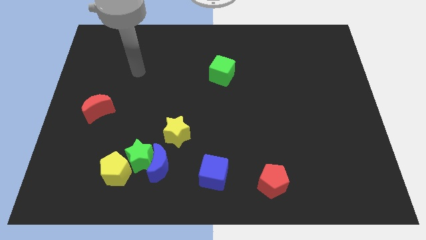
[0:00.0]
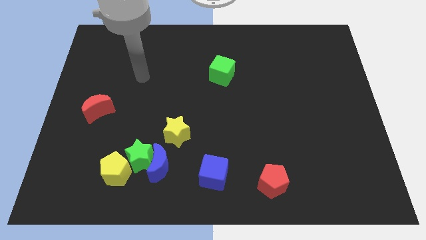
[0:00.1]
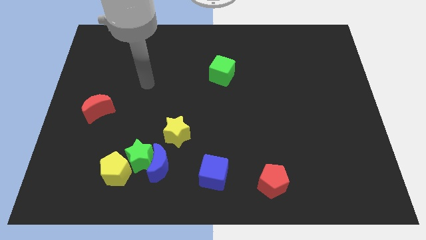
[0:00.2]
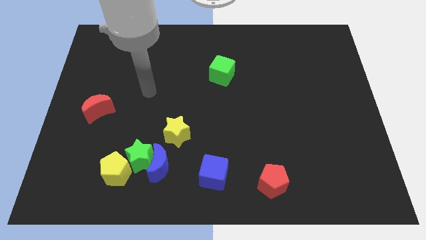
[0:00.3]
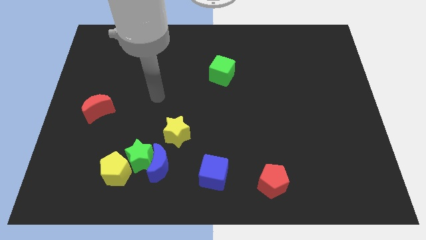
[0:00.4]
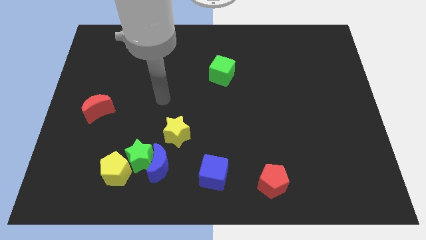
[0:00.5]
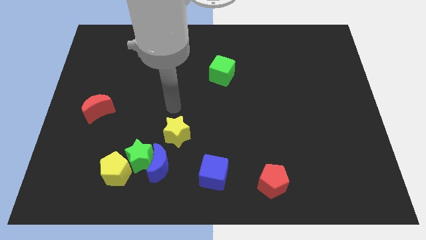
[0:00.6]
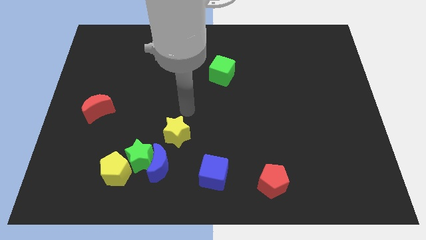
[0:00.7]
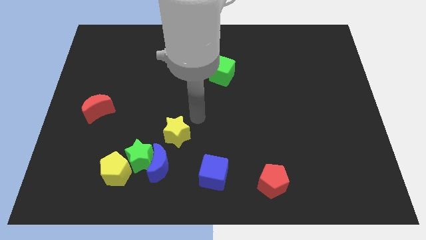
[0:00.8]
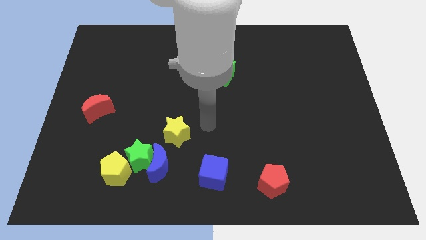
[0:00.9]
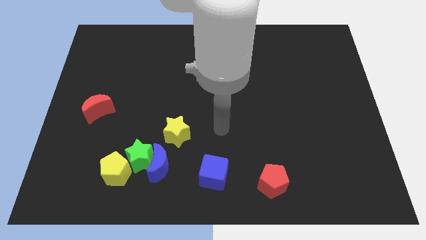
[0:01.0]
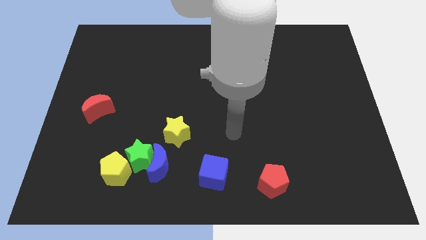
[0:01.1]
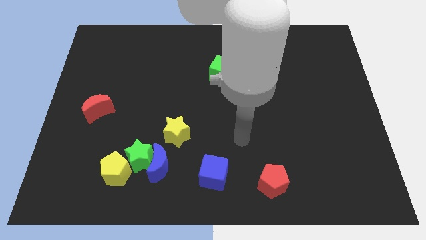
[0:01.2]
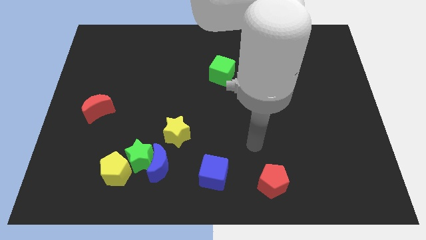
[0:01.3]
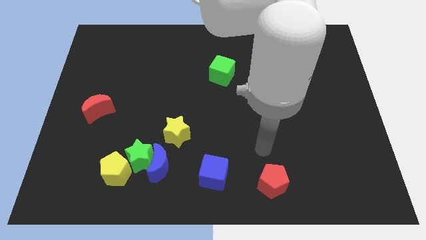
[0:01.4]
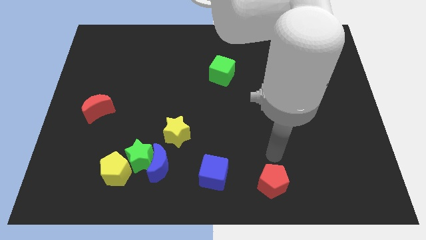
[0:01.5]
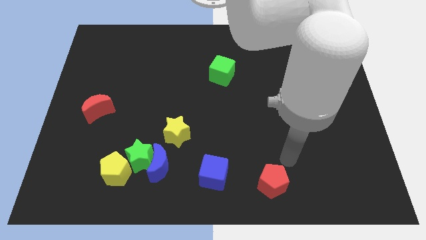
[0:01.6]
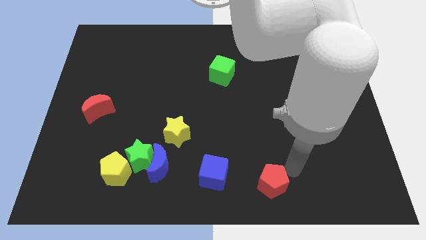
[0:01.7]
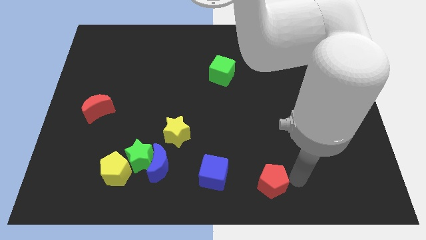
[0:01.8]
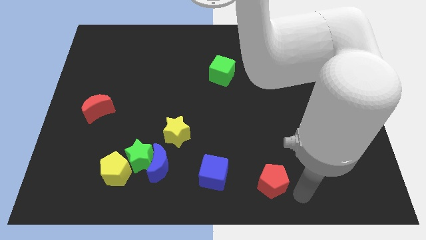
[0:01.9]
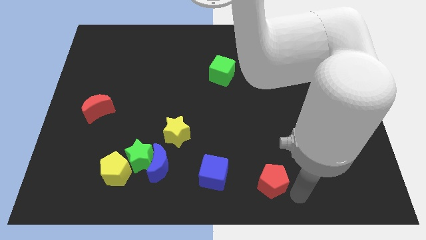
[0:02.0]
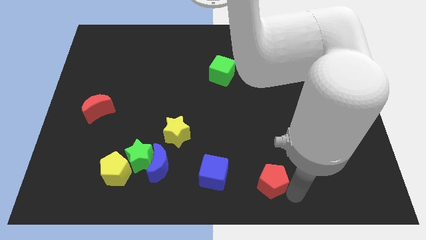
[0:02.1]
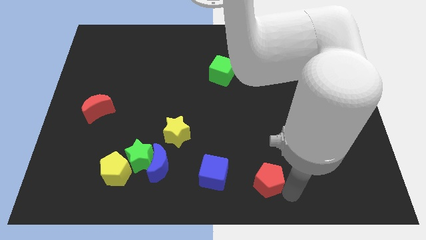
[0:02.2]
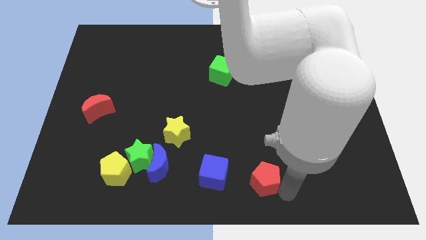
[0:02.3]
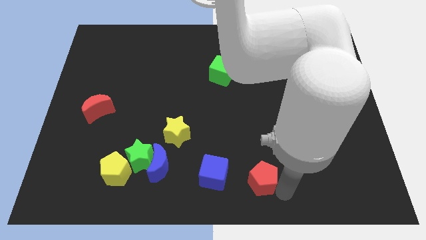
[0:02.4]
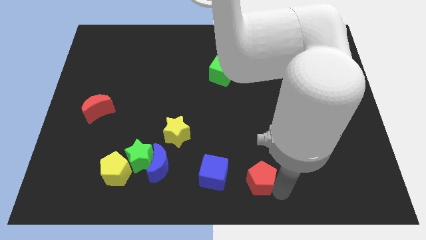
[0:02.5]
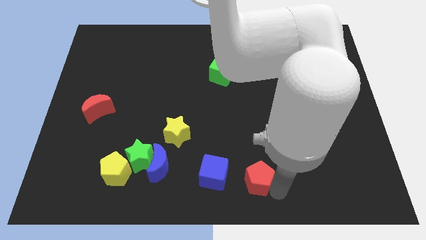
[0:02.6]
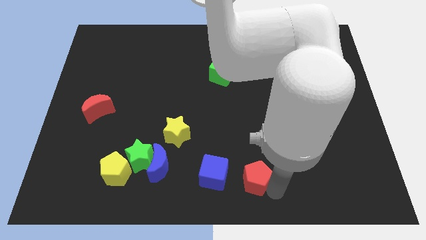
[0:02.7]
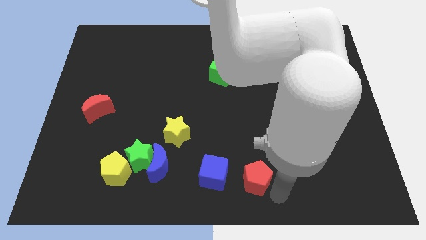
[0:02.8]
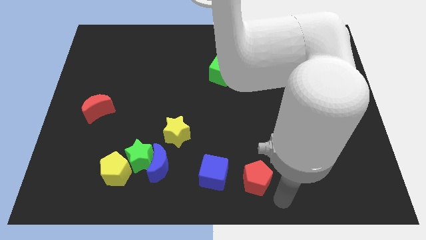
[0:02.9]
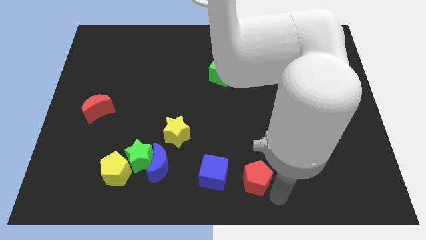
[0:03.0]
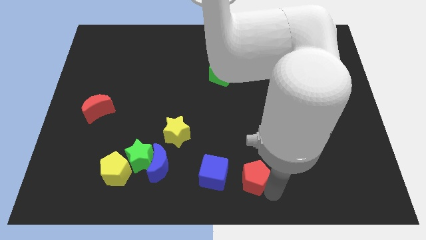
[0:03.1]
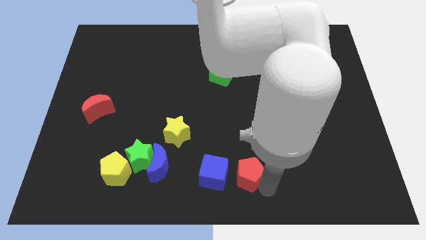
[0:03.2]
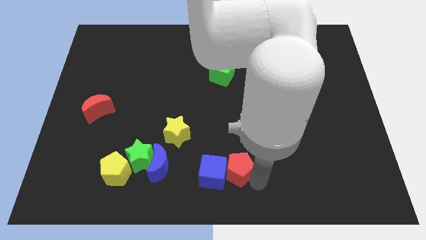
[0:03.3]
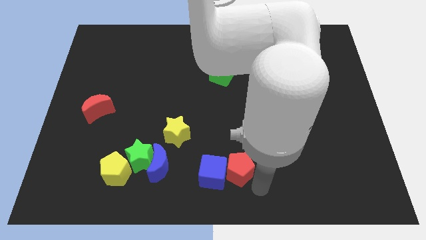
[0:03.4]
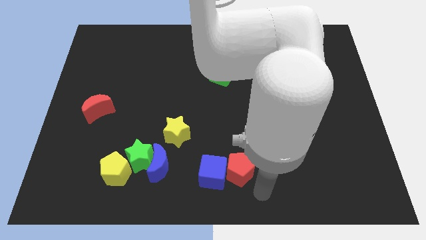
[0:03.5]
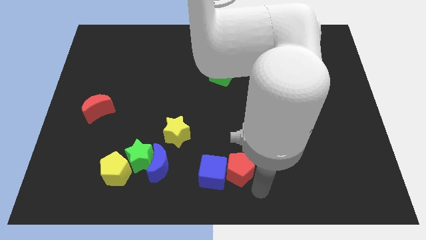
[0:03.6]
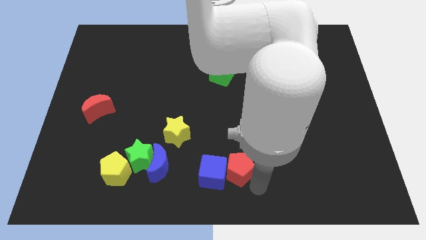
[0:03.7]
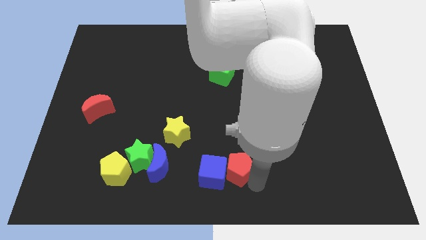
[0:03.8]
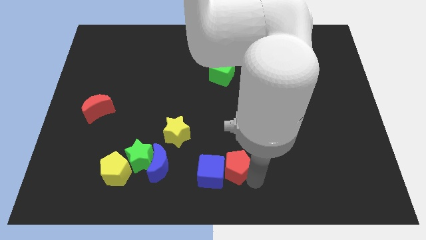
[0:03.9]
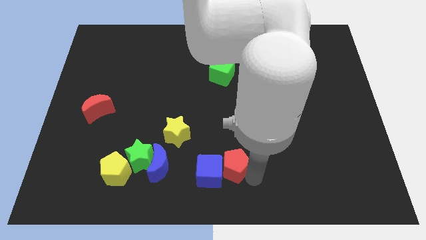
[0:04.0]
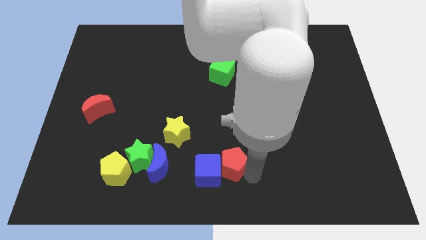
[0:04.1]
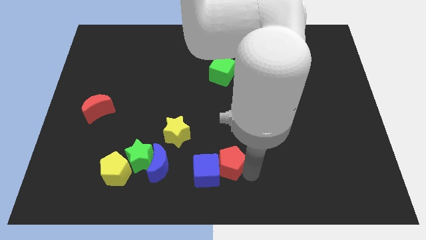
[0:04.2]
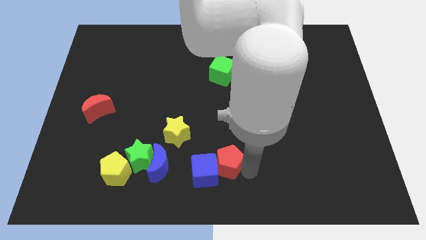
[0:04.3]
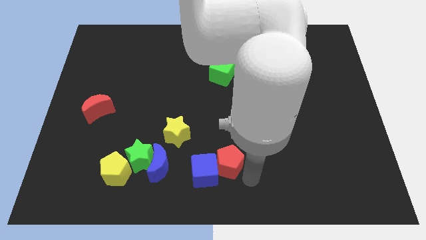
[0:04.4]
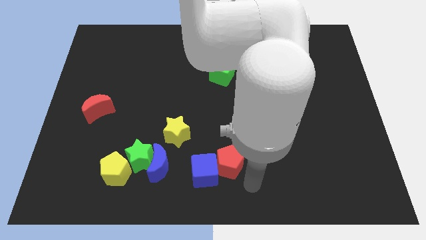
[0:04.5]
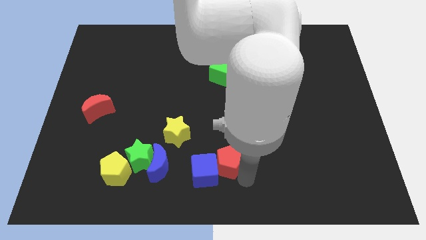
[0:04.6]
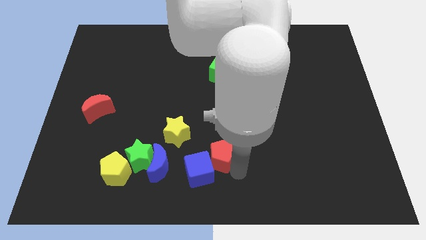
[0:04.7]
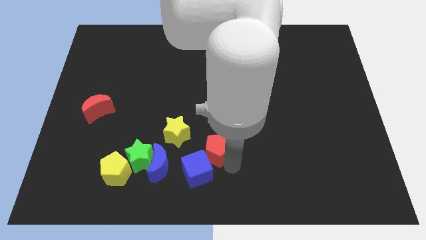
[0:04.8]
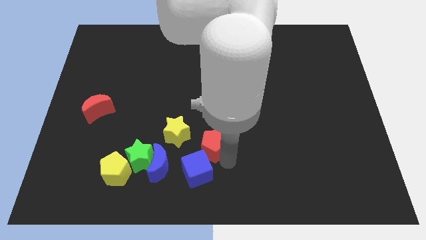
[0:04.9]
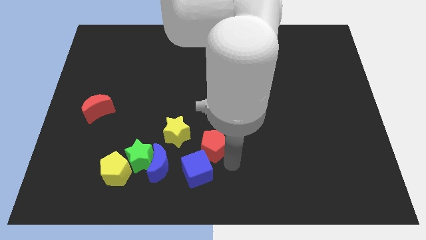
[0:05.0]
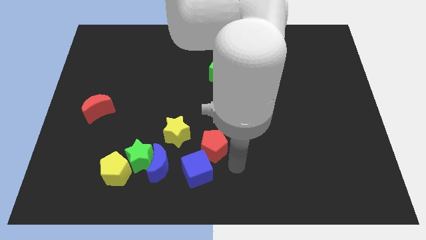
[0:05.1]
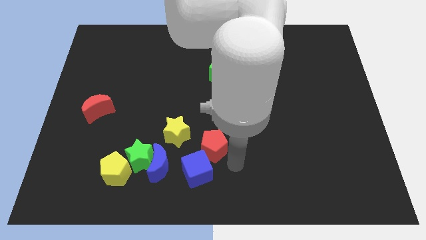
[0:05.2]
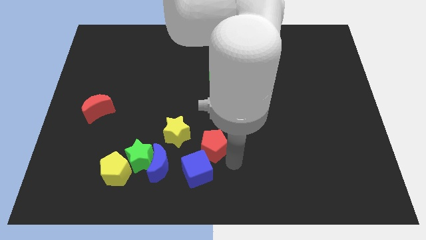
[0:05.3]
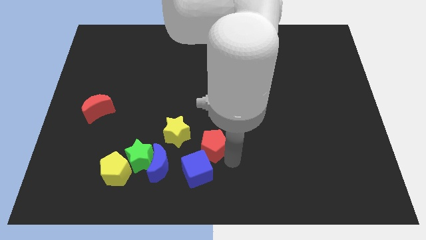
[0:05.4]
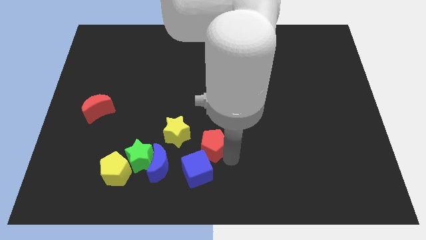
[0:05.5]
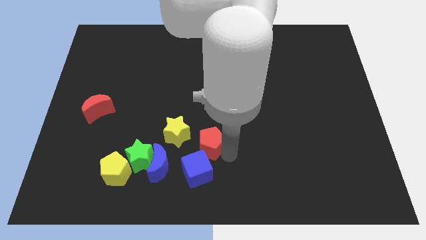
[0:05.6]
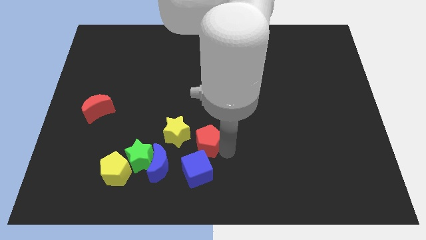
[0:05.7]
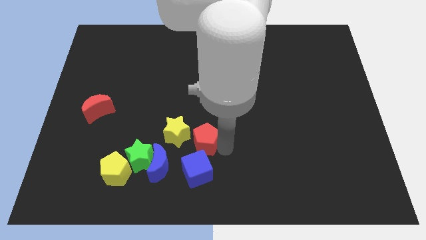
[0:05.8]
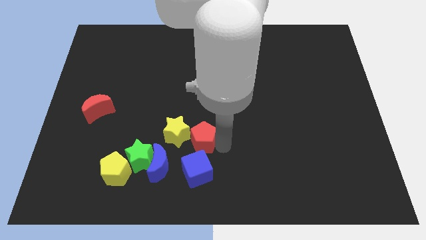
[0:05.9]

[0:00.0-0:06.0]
move the red pentagon close to the yellow star

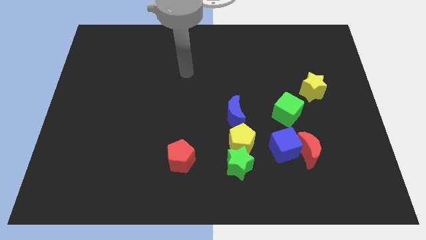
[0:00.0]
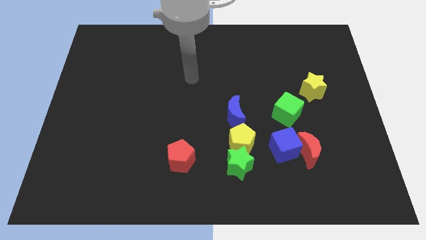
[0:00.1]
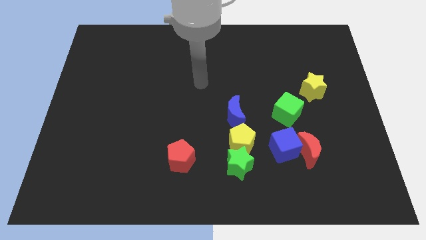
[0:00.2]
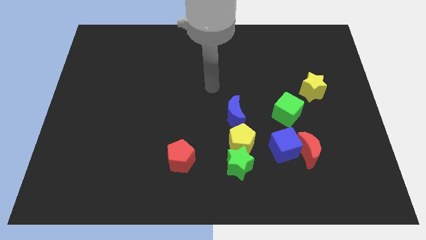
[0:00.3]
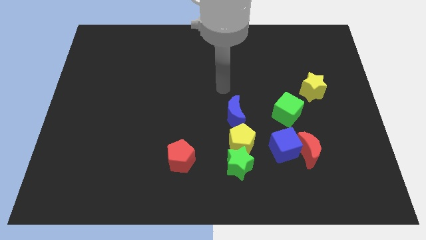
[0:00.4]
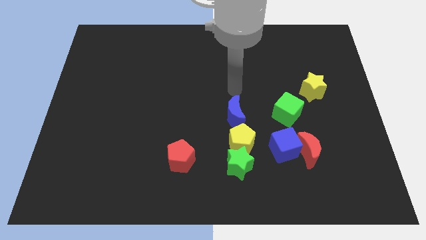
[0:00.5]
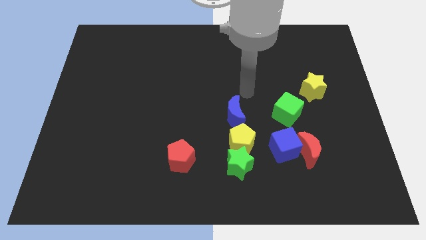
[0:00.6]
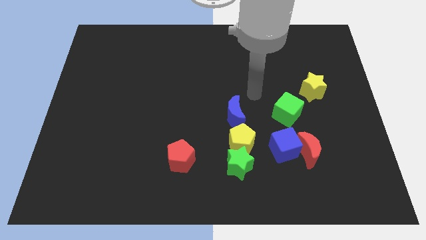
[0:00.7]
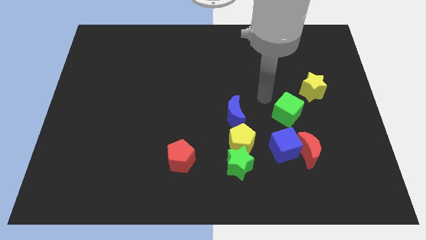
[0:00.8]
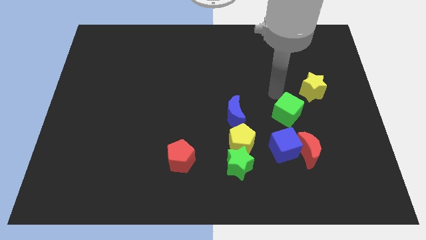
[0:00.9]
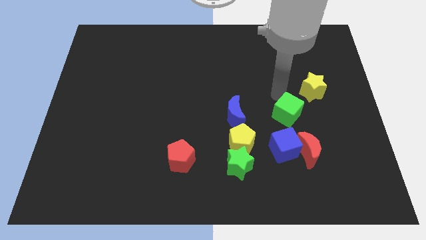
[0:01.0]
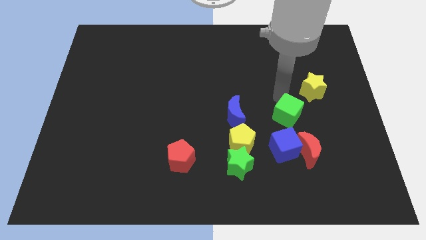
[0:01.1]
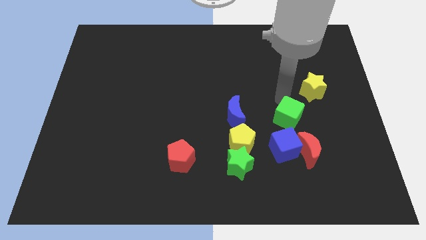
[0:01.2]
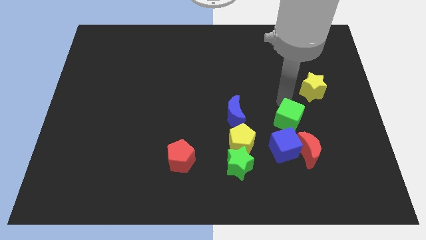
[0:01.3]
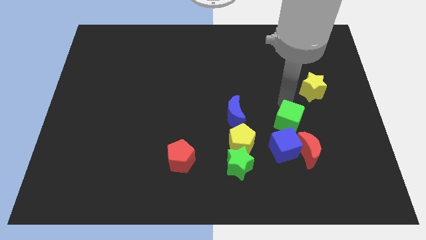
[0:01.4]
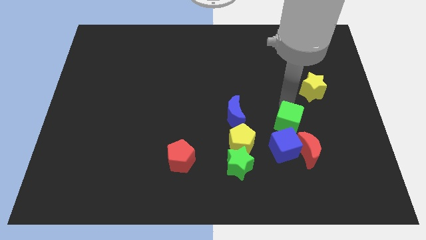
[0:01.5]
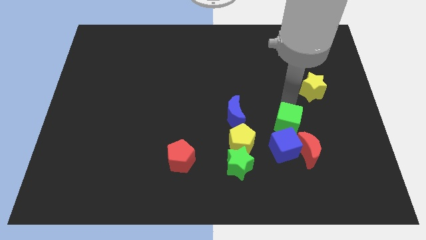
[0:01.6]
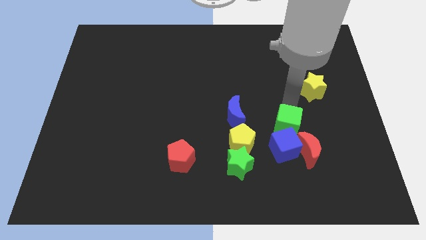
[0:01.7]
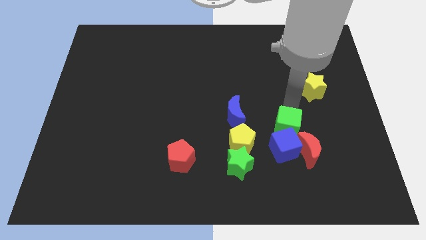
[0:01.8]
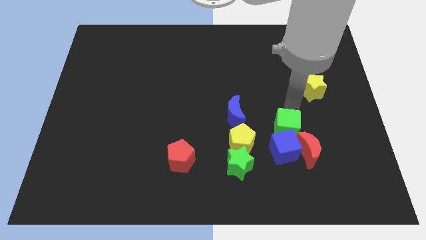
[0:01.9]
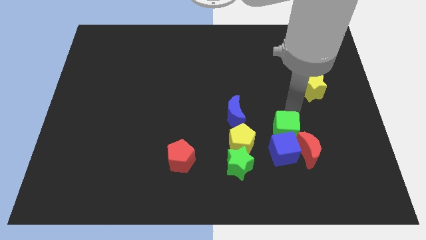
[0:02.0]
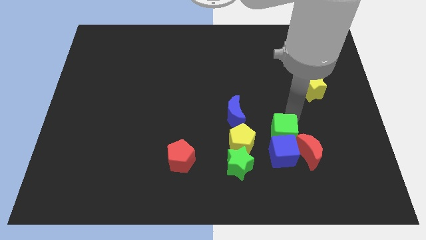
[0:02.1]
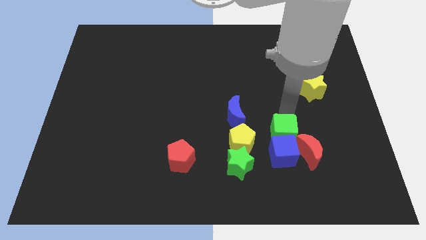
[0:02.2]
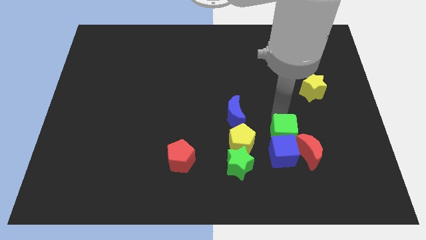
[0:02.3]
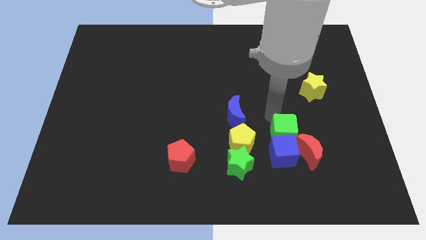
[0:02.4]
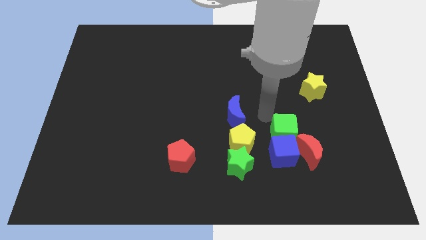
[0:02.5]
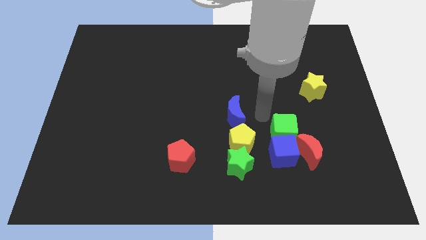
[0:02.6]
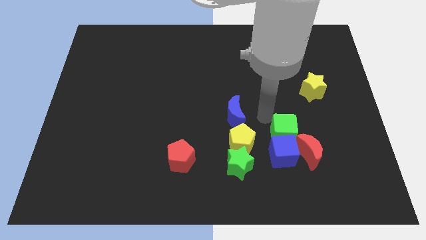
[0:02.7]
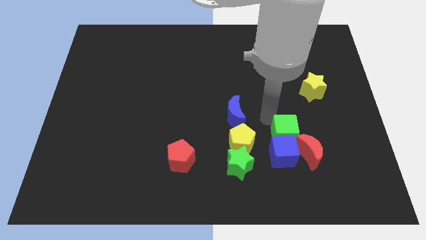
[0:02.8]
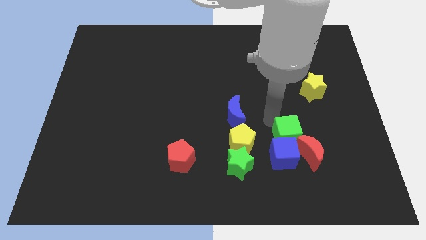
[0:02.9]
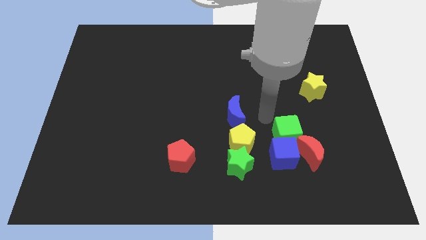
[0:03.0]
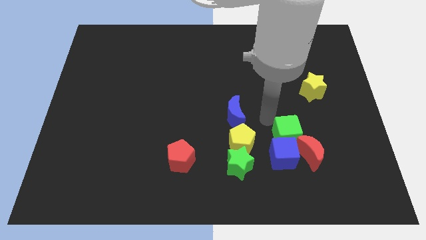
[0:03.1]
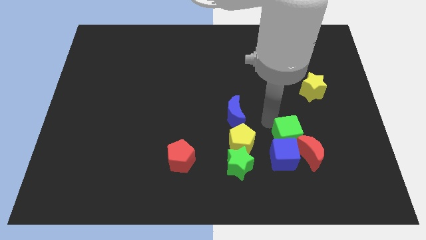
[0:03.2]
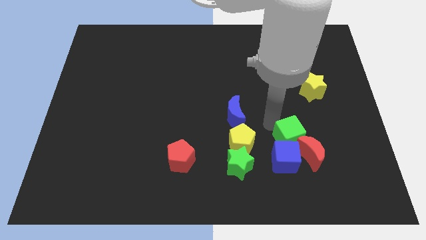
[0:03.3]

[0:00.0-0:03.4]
slide the green cube close to the red moon
